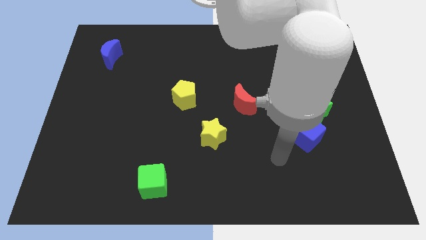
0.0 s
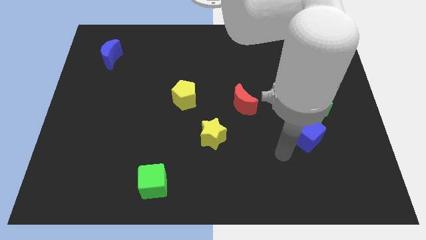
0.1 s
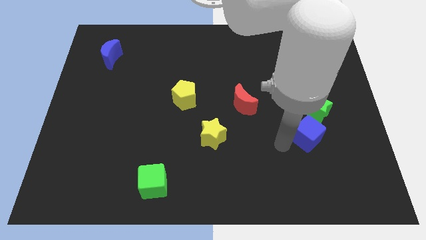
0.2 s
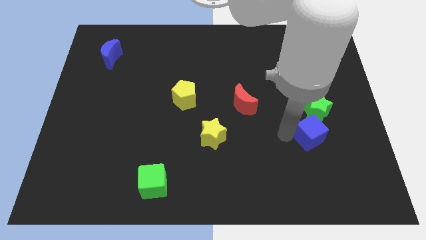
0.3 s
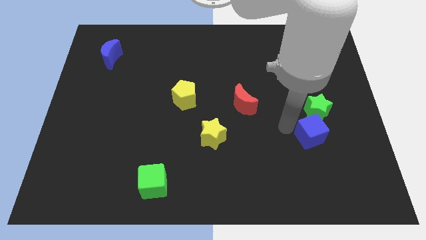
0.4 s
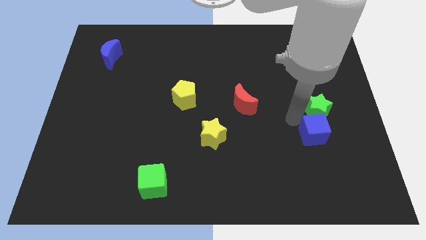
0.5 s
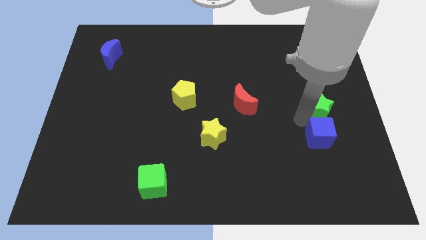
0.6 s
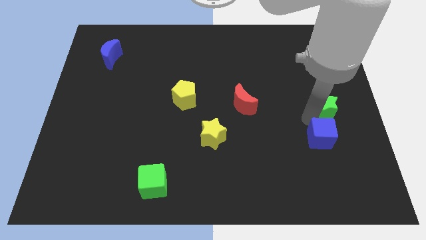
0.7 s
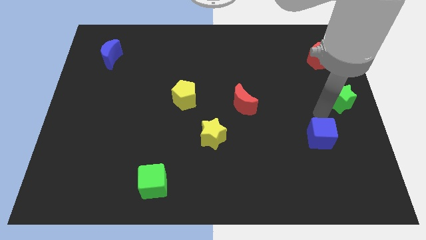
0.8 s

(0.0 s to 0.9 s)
separate the blue cube from the green star

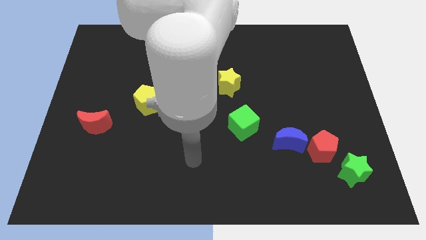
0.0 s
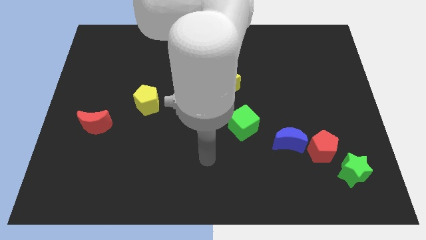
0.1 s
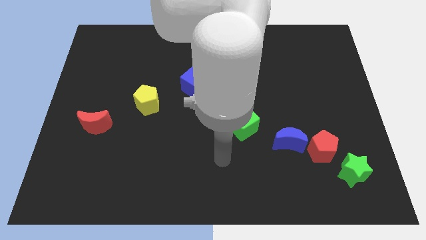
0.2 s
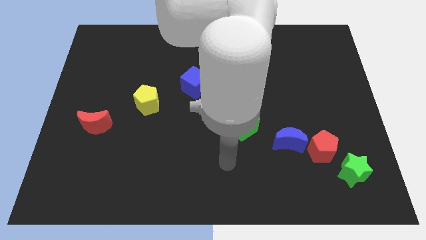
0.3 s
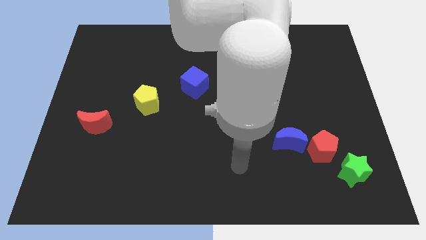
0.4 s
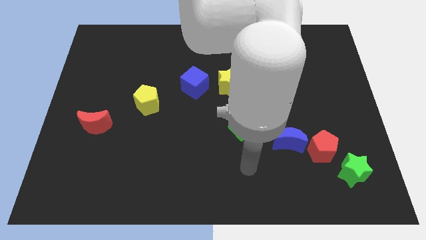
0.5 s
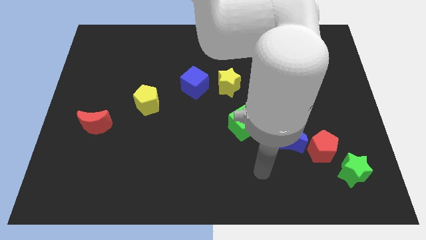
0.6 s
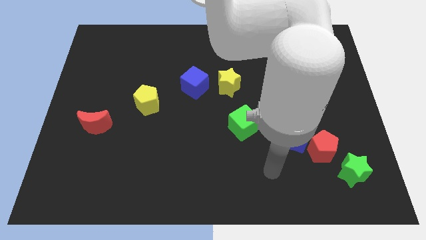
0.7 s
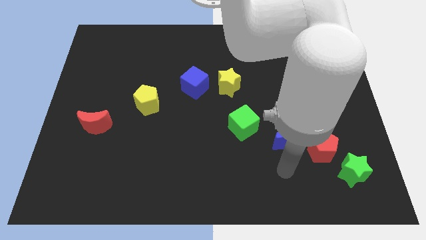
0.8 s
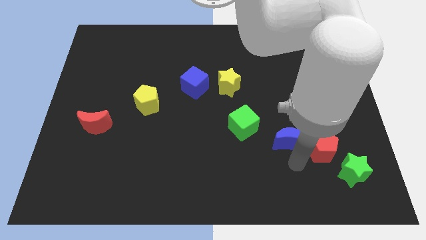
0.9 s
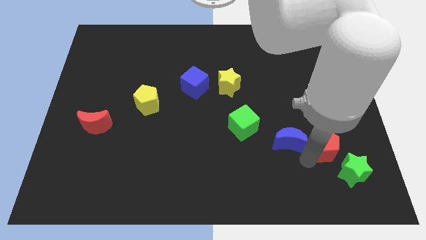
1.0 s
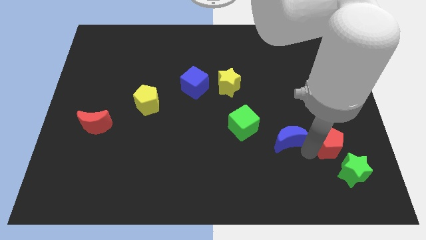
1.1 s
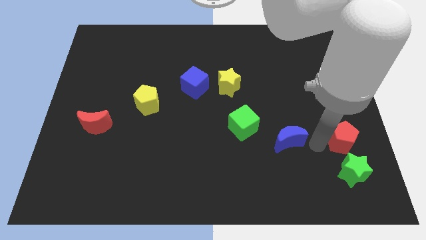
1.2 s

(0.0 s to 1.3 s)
move the blue moon away from the red pentagon

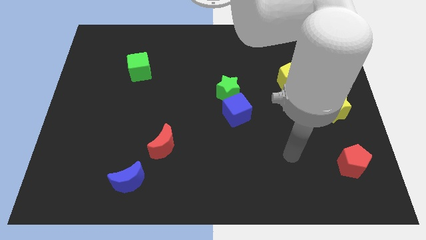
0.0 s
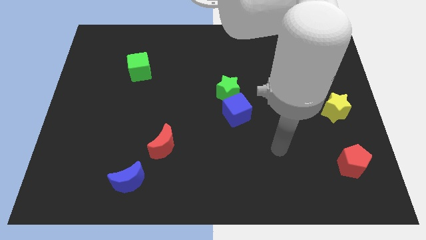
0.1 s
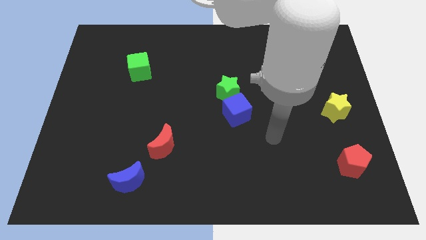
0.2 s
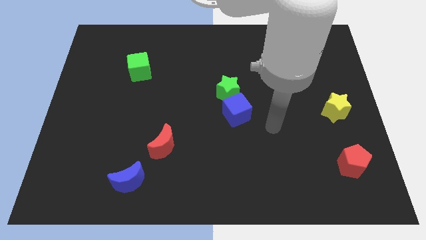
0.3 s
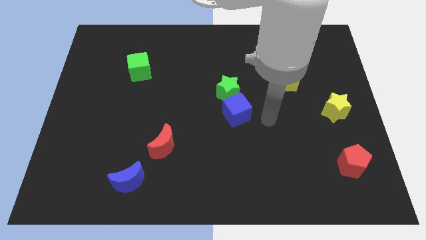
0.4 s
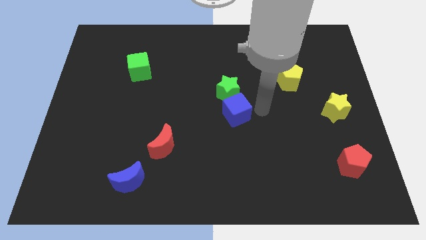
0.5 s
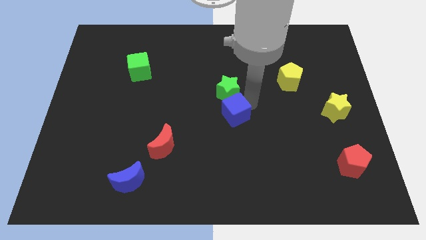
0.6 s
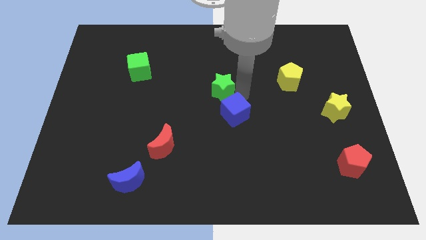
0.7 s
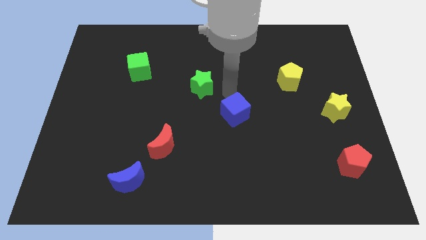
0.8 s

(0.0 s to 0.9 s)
move the blue cube away from the green star

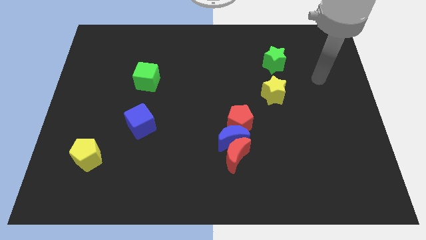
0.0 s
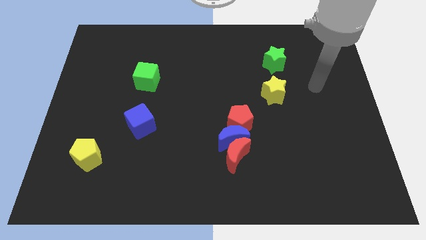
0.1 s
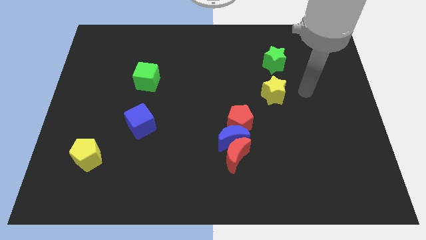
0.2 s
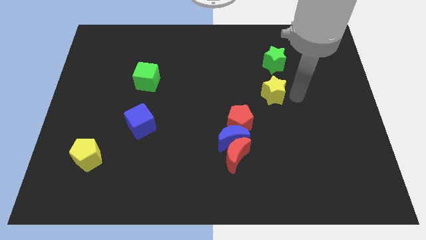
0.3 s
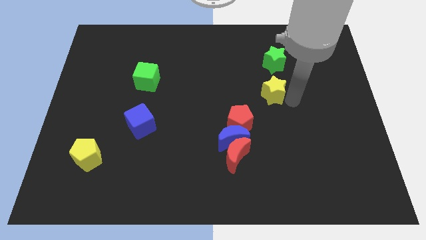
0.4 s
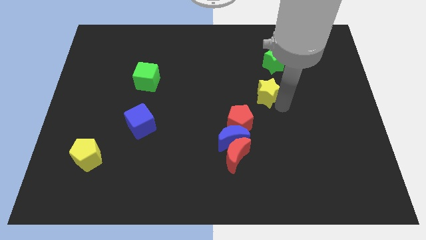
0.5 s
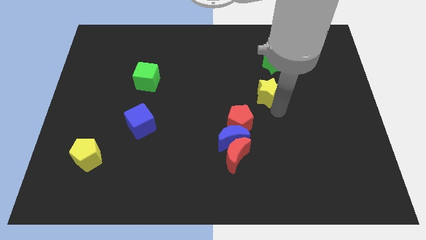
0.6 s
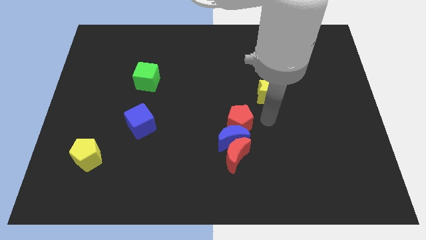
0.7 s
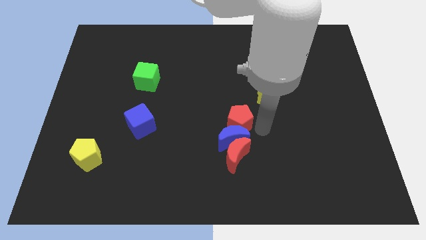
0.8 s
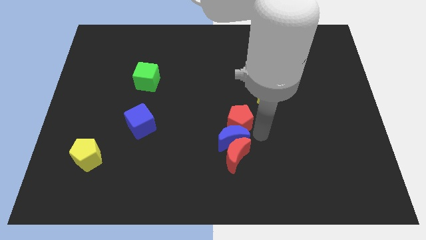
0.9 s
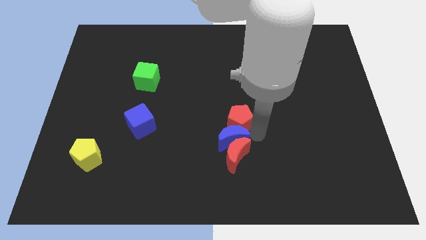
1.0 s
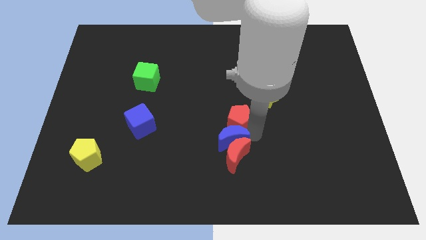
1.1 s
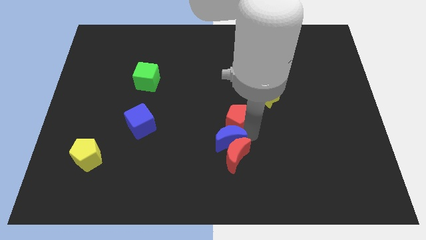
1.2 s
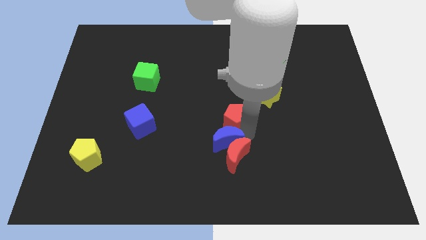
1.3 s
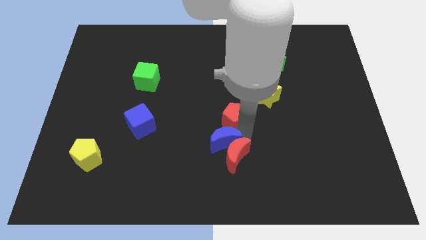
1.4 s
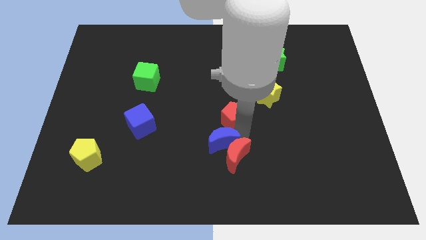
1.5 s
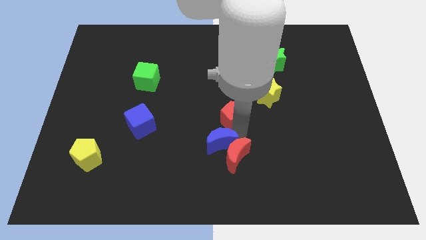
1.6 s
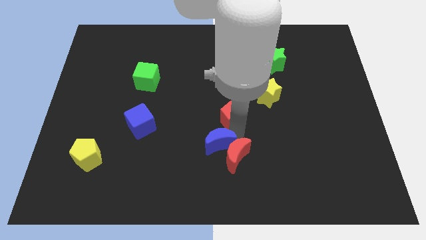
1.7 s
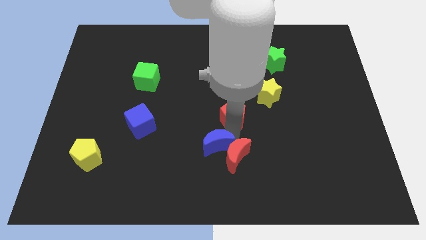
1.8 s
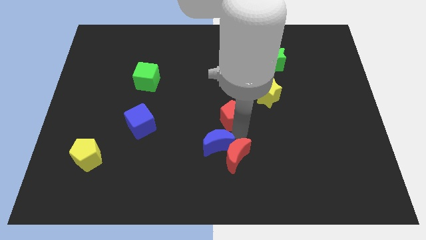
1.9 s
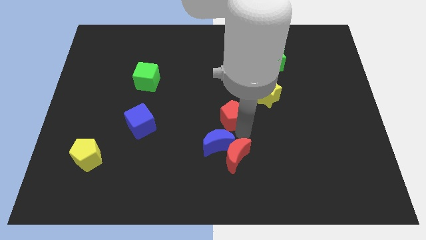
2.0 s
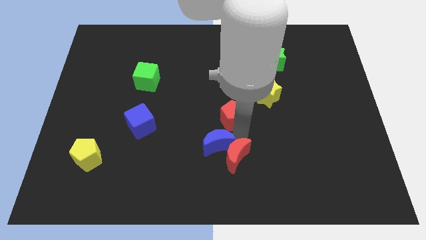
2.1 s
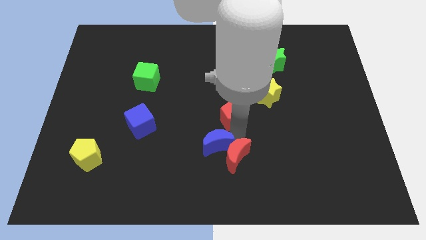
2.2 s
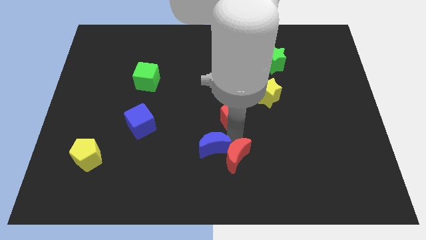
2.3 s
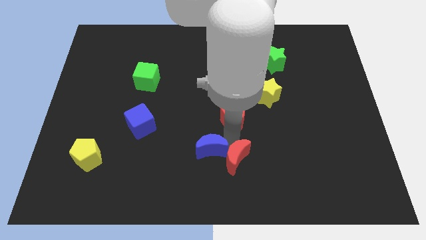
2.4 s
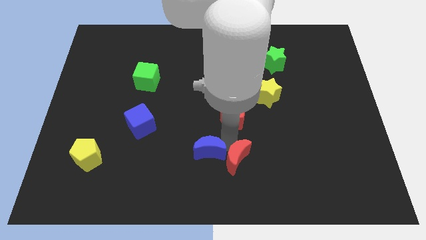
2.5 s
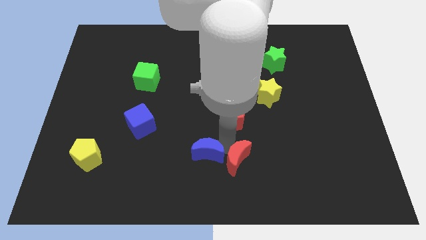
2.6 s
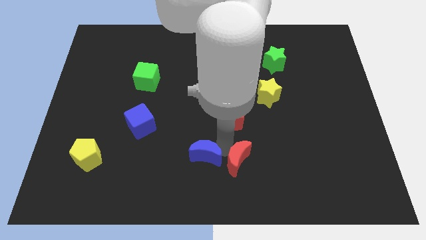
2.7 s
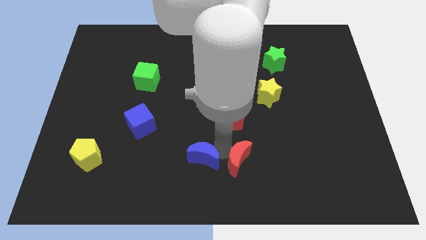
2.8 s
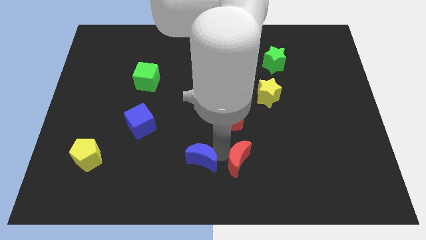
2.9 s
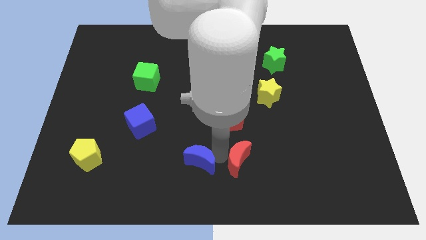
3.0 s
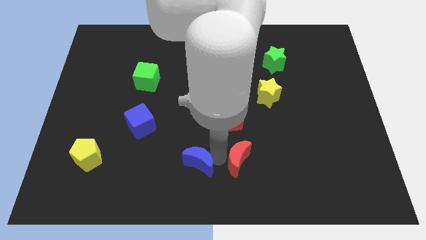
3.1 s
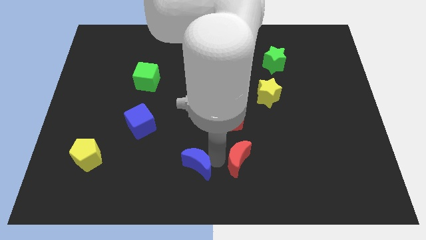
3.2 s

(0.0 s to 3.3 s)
move the blue moon away from the red moon and red pentagon

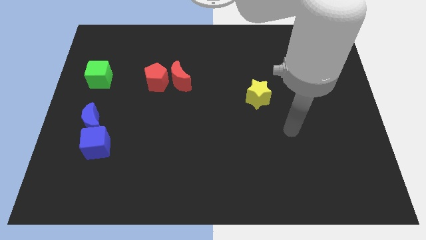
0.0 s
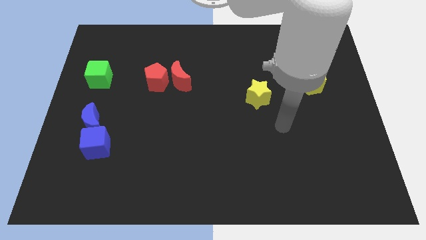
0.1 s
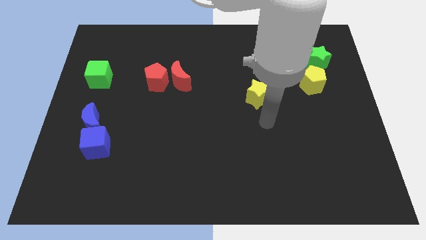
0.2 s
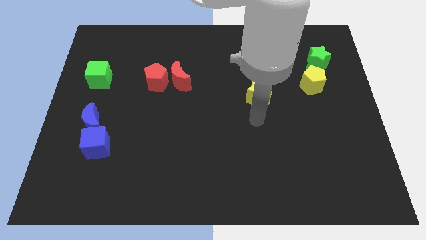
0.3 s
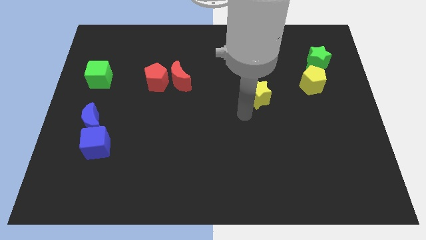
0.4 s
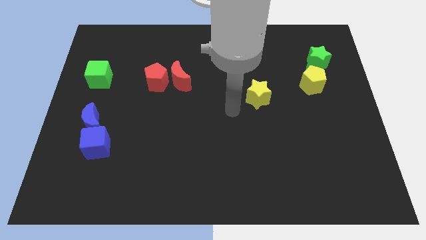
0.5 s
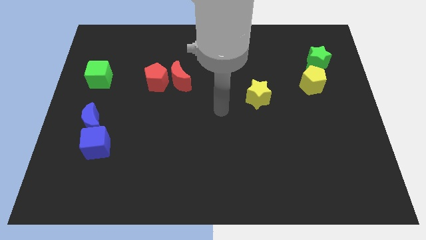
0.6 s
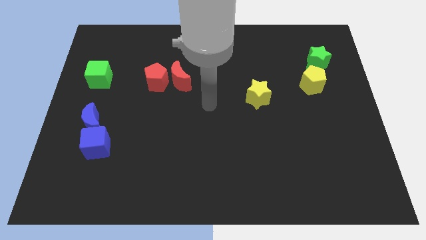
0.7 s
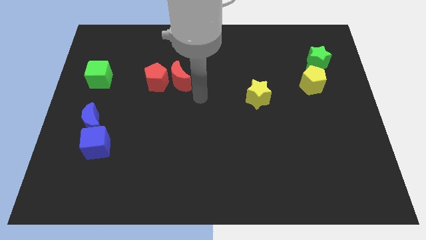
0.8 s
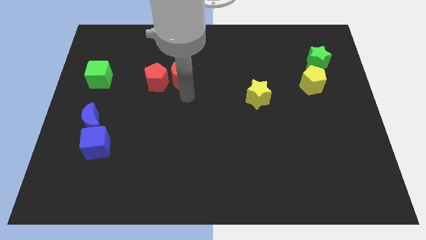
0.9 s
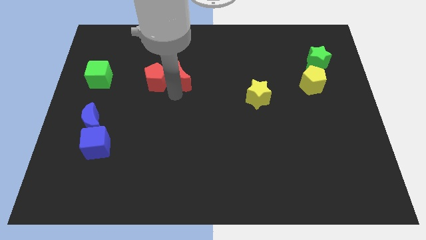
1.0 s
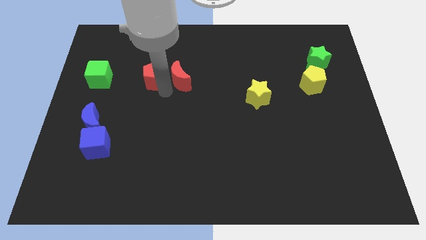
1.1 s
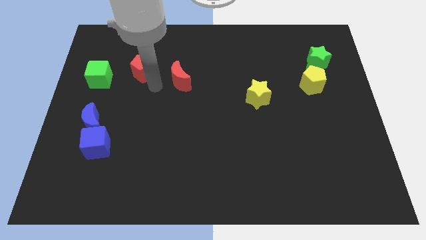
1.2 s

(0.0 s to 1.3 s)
separate the red moon from the red pentagon

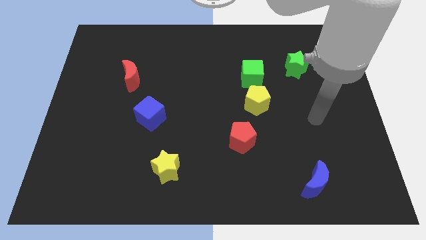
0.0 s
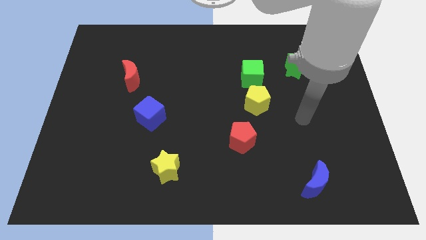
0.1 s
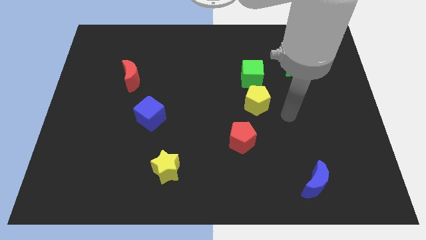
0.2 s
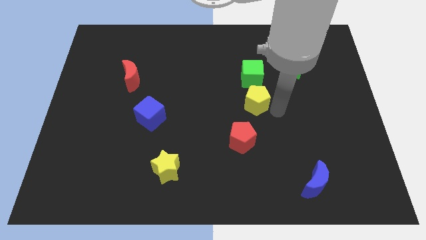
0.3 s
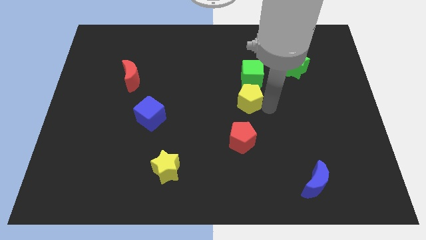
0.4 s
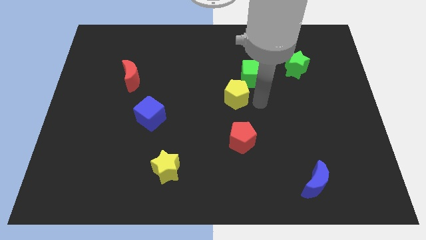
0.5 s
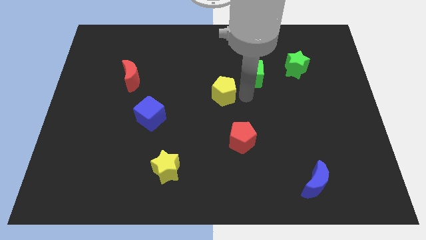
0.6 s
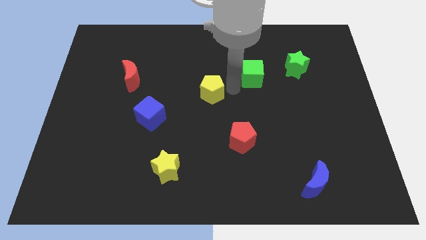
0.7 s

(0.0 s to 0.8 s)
separate the green cube from the yellow pentagon

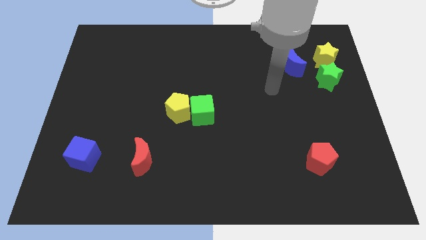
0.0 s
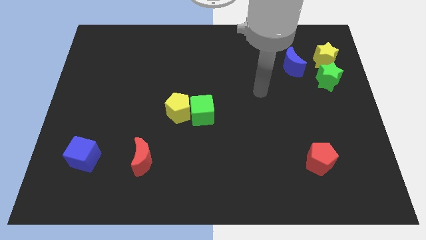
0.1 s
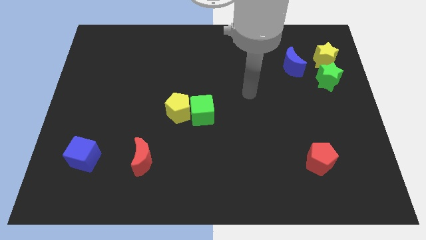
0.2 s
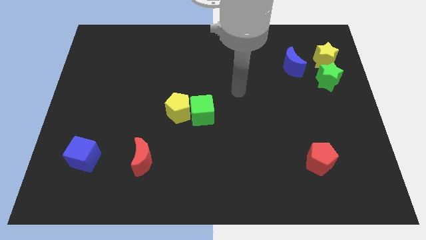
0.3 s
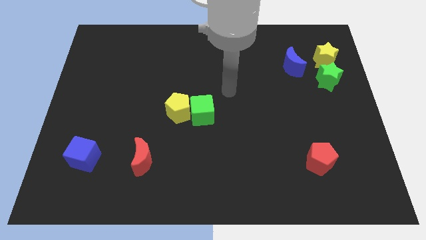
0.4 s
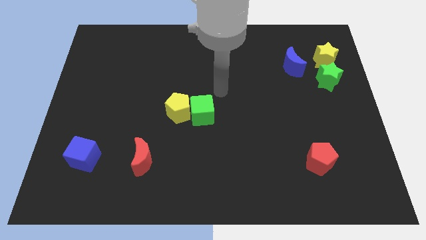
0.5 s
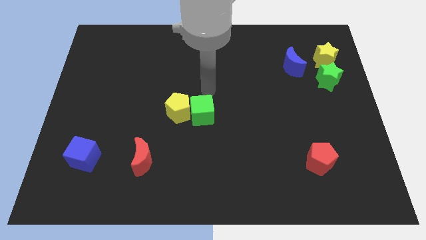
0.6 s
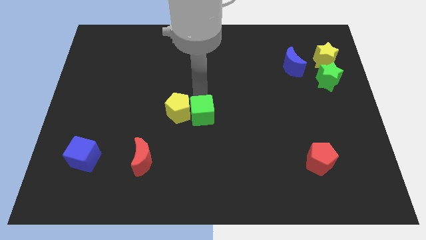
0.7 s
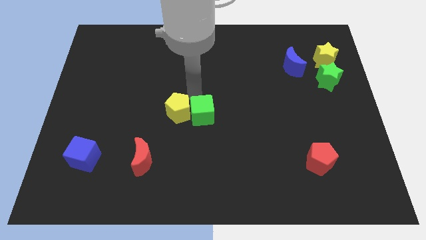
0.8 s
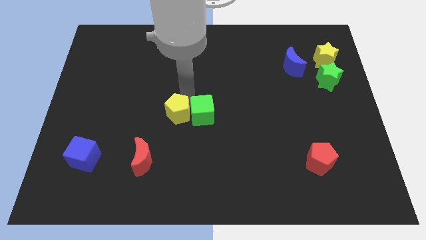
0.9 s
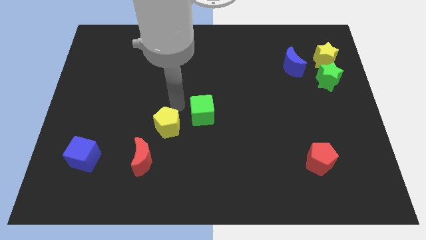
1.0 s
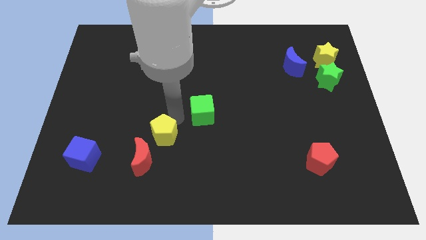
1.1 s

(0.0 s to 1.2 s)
move the green cube away from the yellow pentagon
